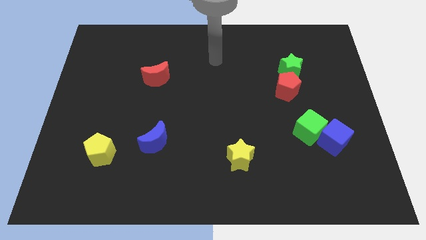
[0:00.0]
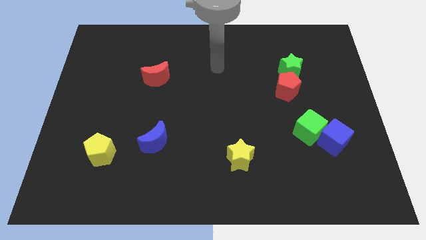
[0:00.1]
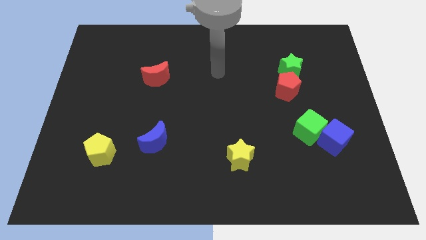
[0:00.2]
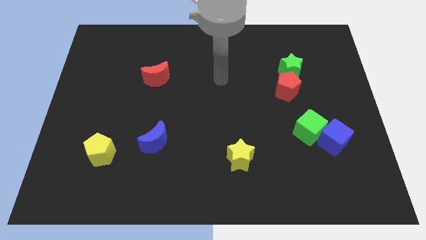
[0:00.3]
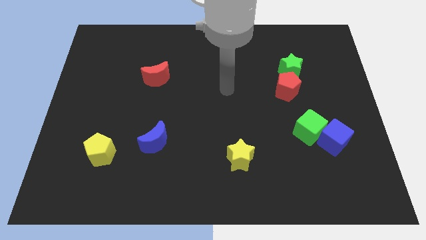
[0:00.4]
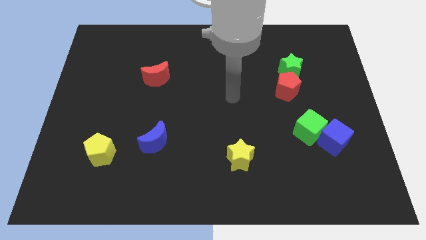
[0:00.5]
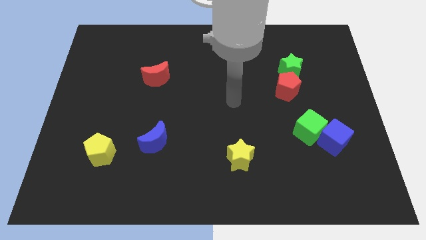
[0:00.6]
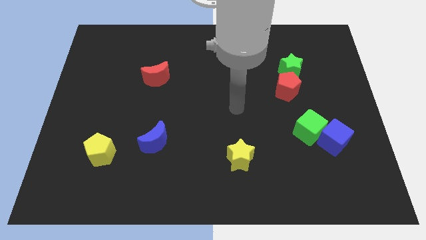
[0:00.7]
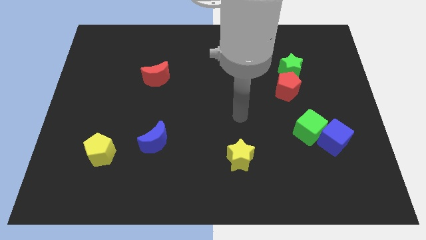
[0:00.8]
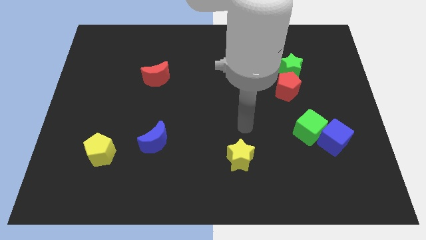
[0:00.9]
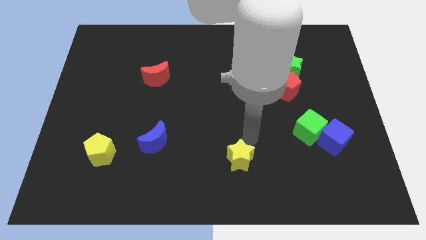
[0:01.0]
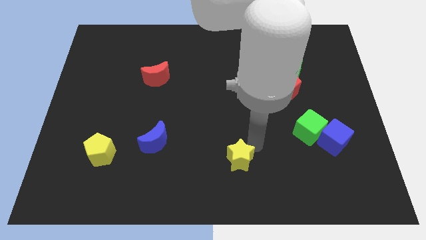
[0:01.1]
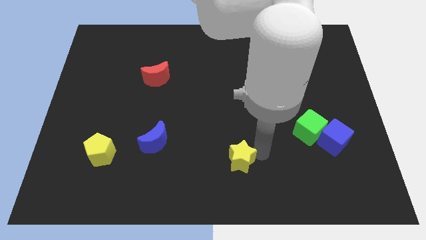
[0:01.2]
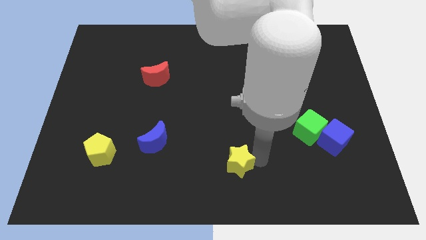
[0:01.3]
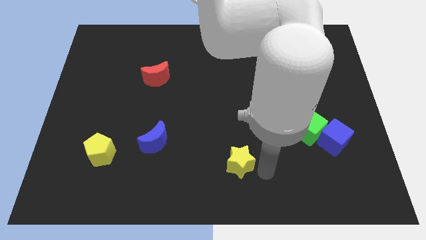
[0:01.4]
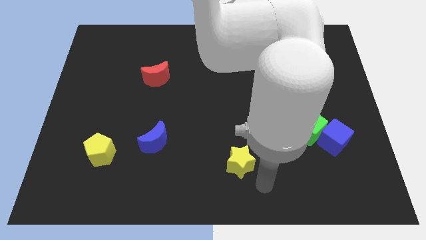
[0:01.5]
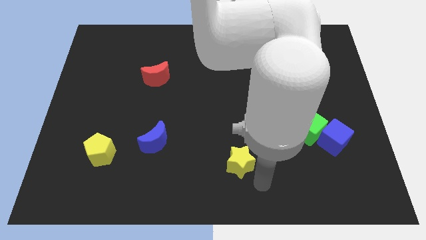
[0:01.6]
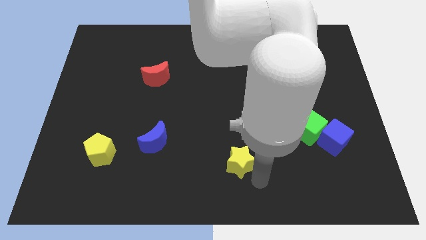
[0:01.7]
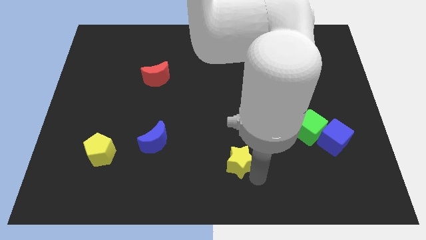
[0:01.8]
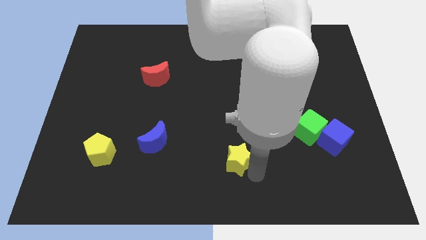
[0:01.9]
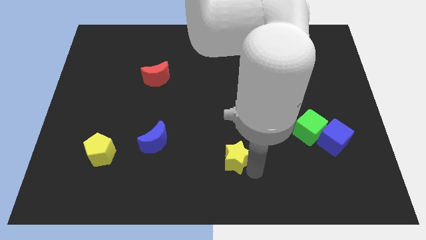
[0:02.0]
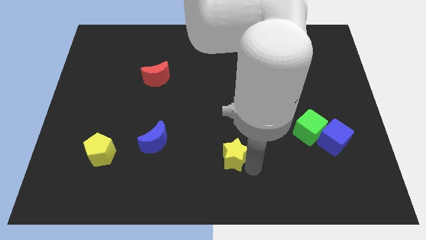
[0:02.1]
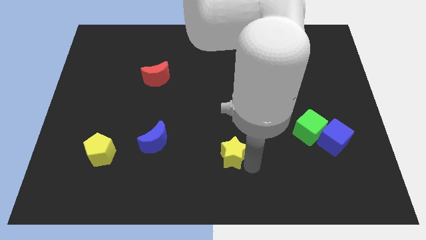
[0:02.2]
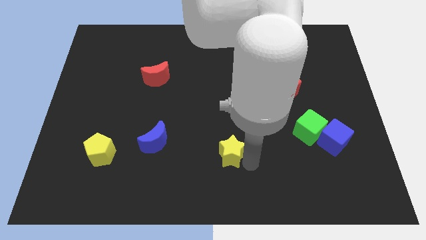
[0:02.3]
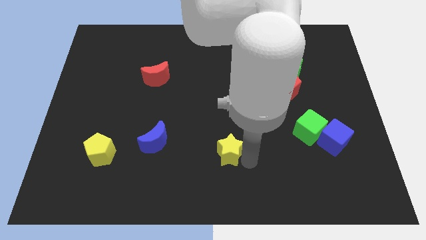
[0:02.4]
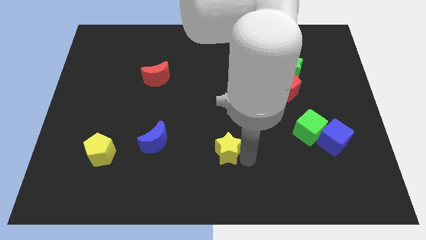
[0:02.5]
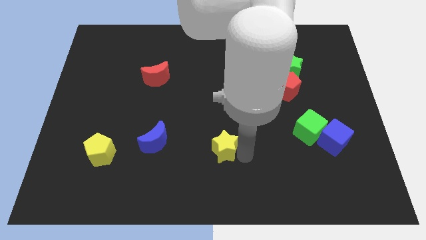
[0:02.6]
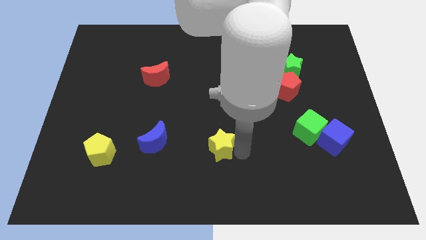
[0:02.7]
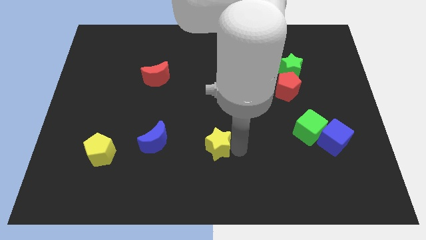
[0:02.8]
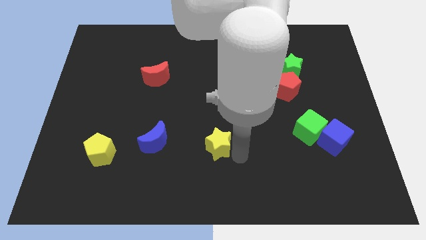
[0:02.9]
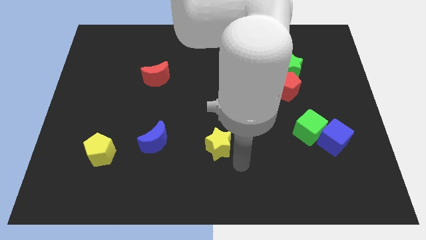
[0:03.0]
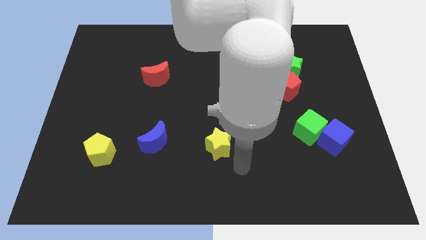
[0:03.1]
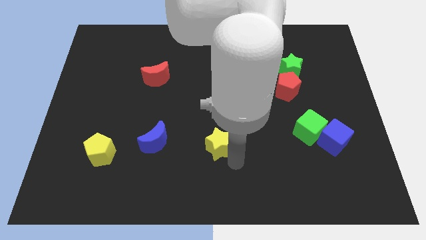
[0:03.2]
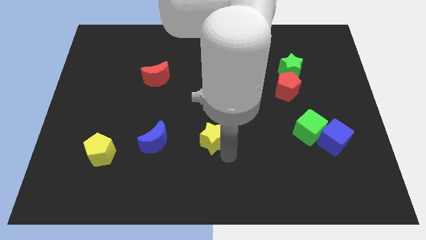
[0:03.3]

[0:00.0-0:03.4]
move the yellow star upwards and left diagonally slightly

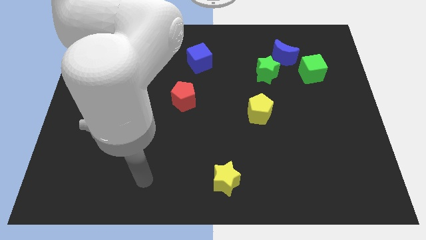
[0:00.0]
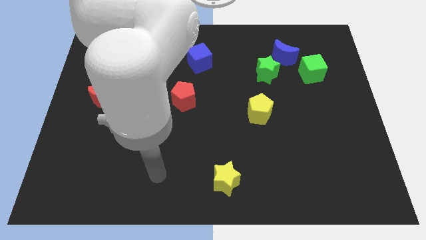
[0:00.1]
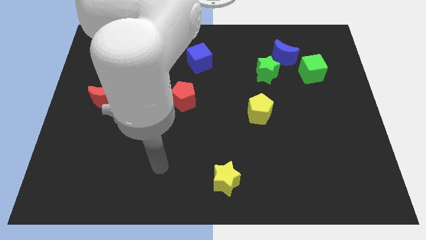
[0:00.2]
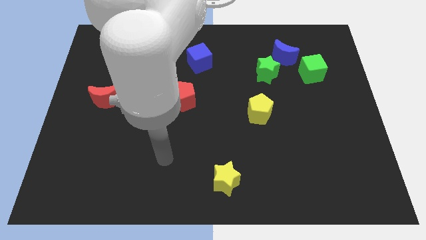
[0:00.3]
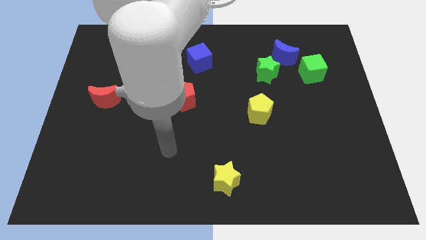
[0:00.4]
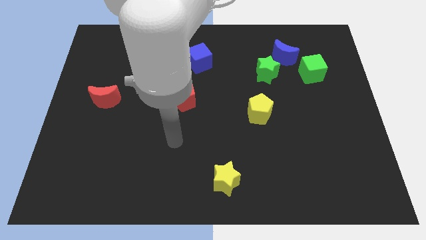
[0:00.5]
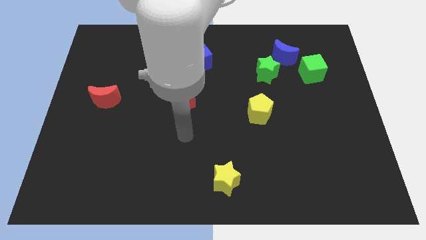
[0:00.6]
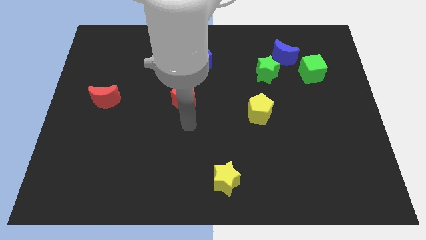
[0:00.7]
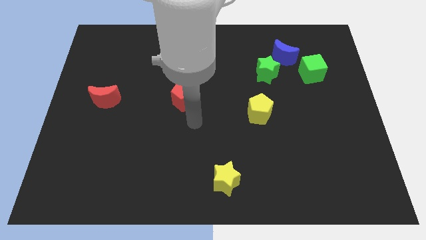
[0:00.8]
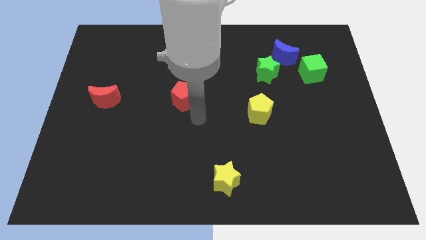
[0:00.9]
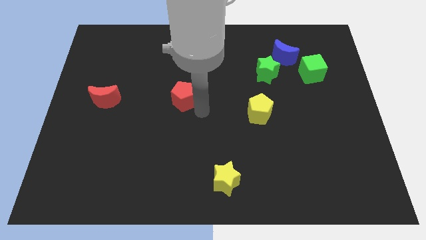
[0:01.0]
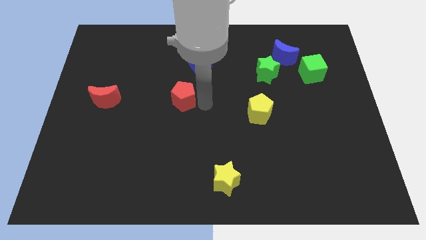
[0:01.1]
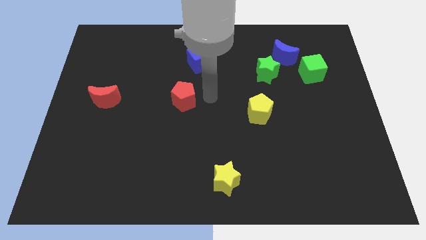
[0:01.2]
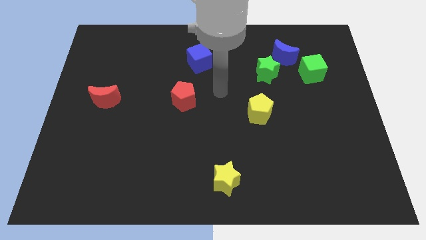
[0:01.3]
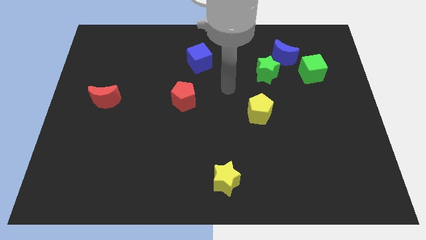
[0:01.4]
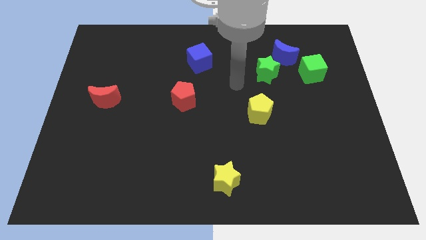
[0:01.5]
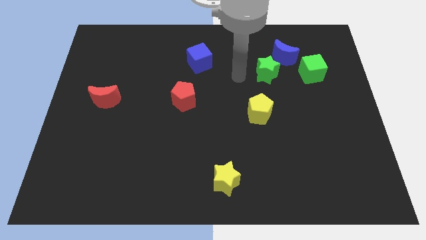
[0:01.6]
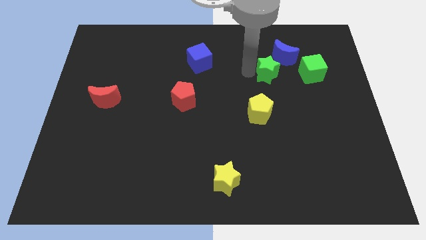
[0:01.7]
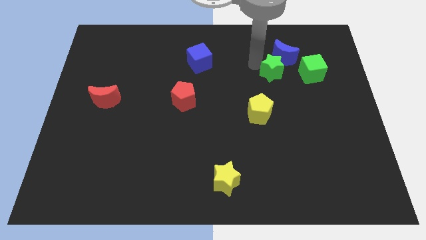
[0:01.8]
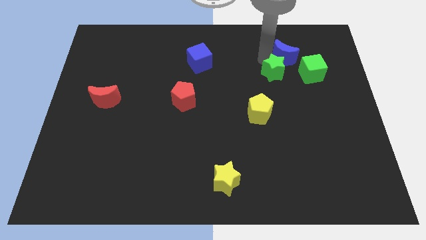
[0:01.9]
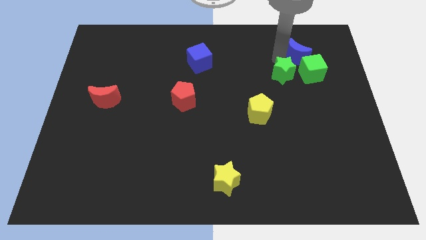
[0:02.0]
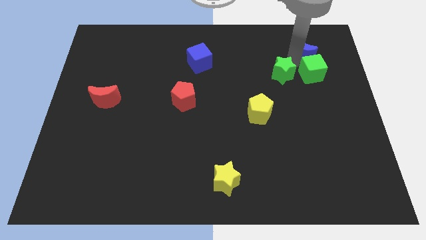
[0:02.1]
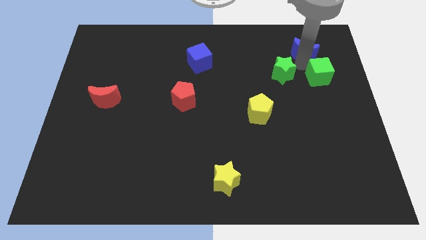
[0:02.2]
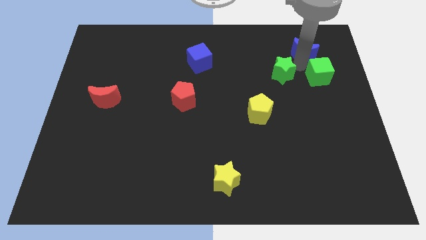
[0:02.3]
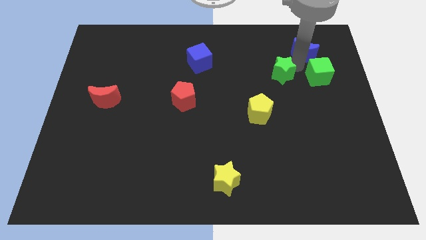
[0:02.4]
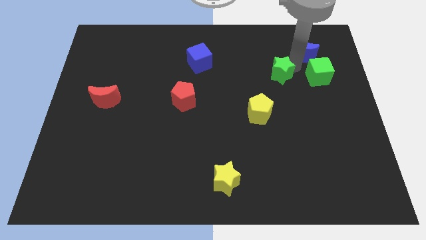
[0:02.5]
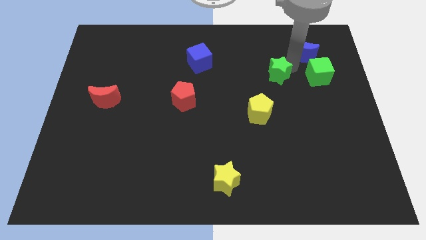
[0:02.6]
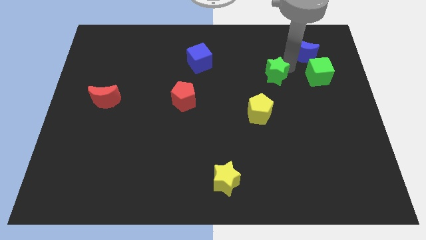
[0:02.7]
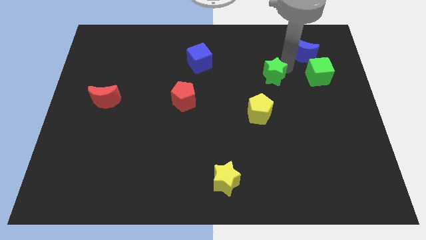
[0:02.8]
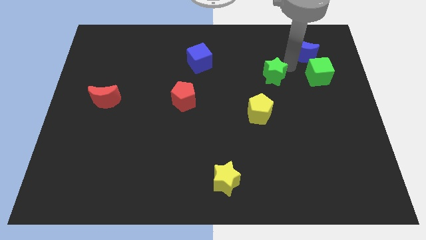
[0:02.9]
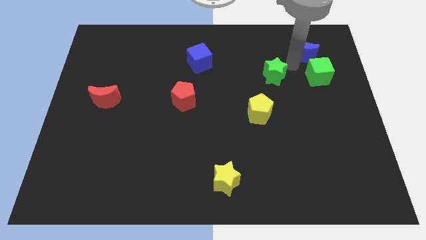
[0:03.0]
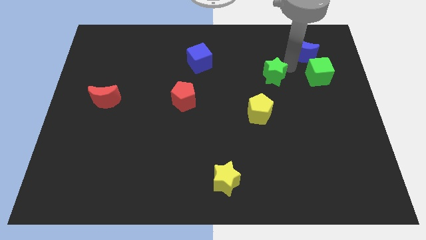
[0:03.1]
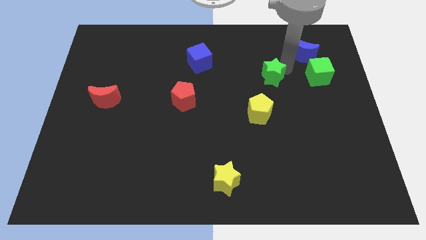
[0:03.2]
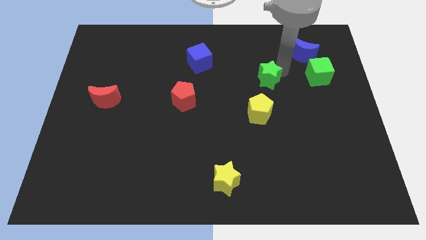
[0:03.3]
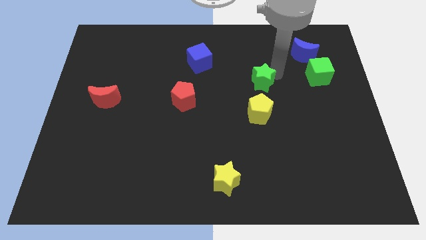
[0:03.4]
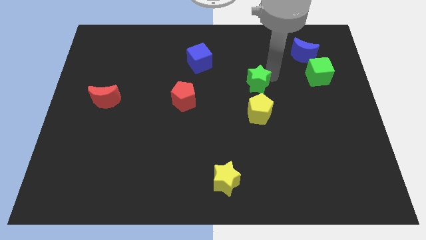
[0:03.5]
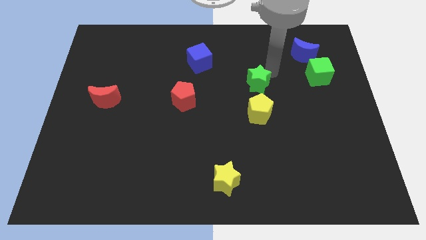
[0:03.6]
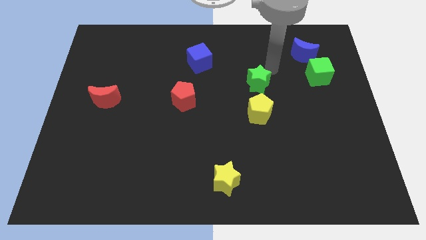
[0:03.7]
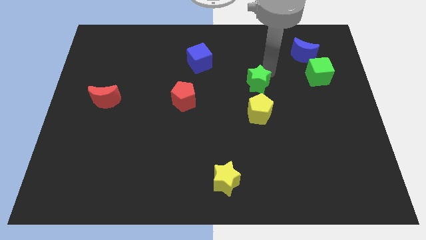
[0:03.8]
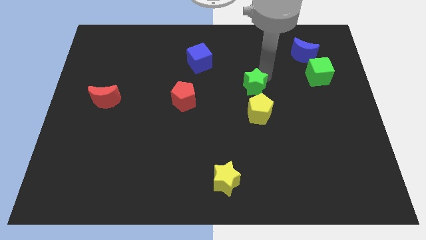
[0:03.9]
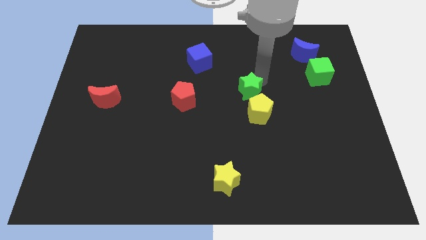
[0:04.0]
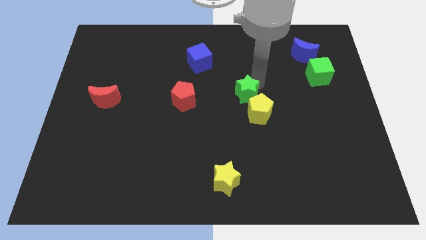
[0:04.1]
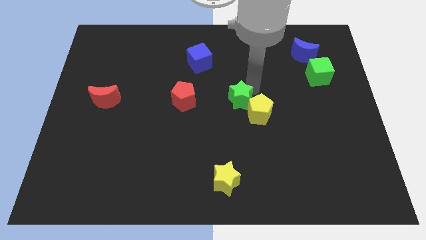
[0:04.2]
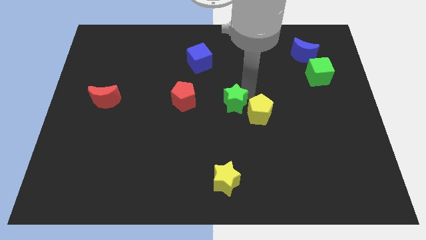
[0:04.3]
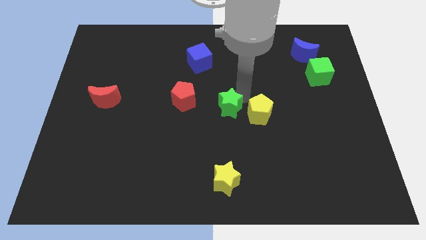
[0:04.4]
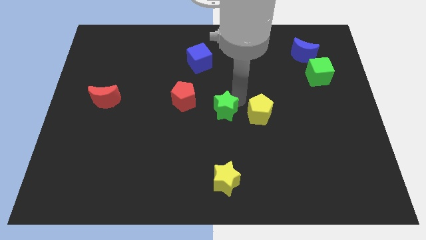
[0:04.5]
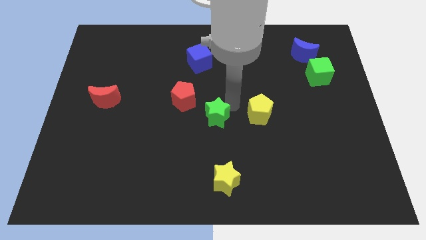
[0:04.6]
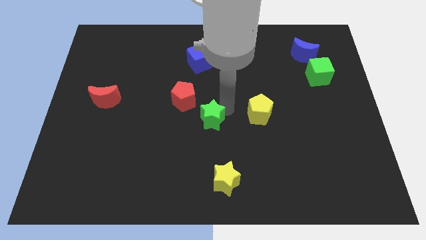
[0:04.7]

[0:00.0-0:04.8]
move the green star downwards and to the left diagonally
